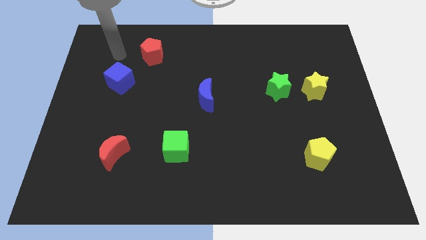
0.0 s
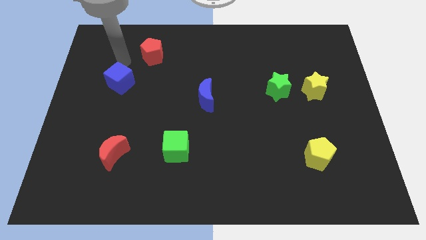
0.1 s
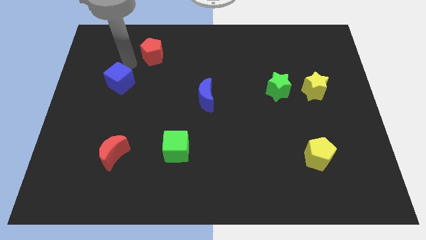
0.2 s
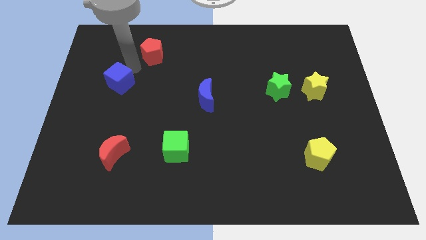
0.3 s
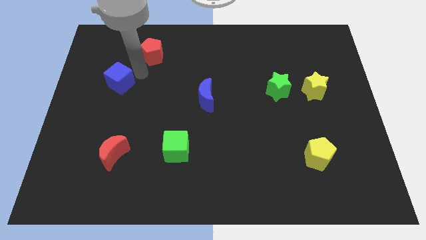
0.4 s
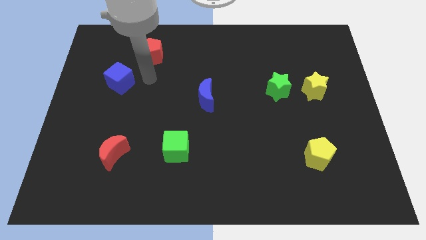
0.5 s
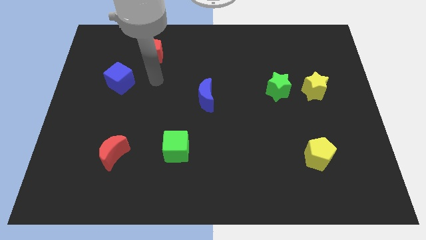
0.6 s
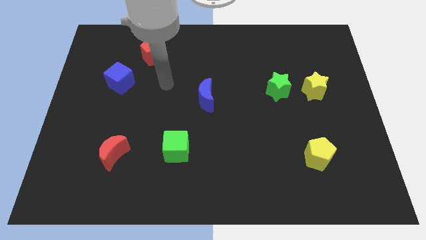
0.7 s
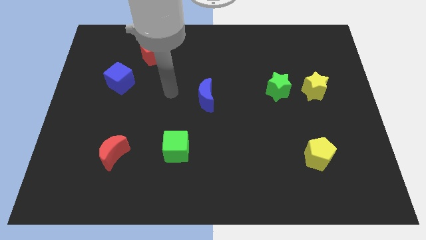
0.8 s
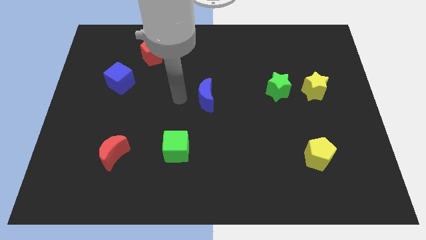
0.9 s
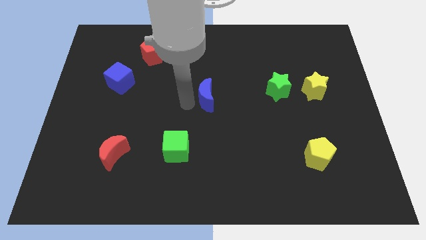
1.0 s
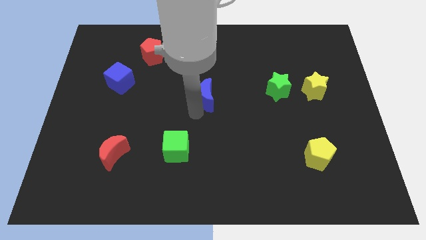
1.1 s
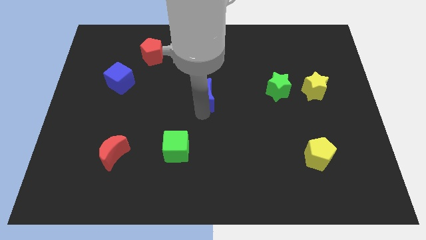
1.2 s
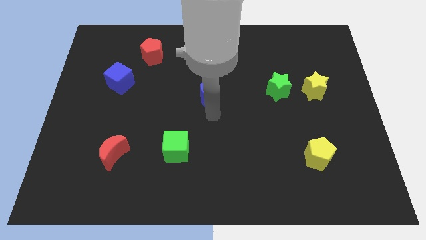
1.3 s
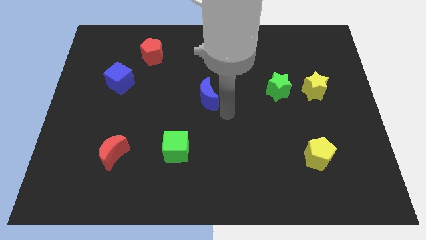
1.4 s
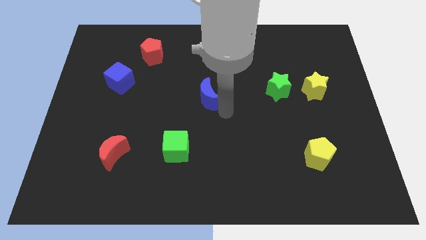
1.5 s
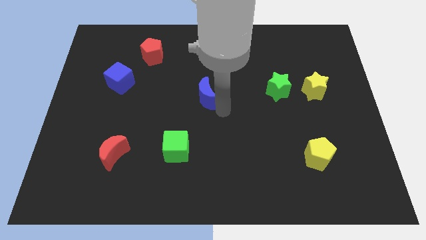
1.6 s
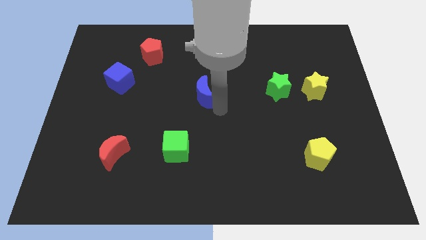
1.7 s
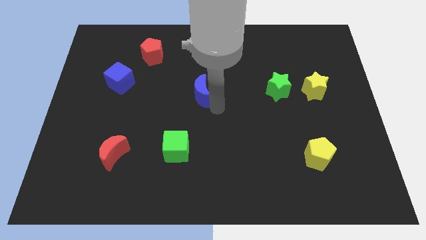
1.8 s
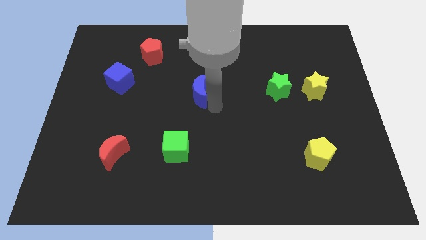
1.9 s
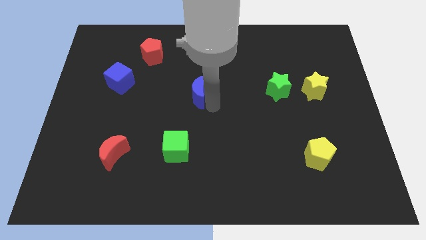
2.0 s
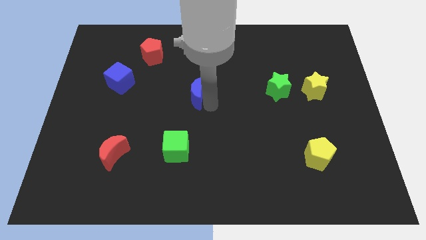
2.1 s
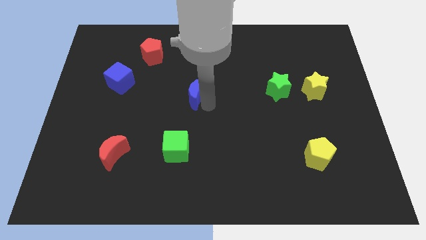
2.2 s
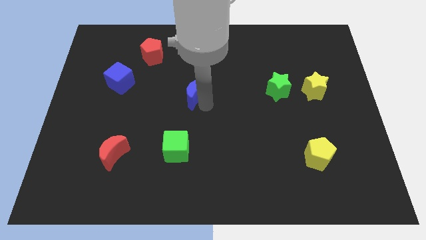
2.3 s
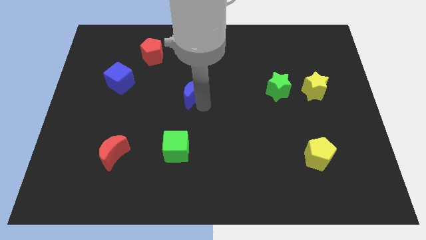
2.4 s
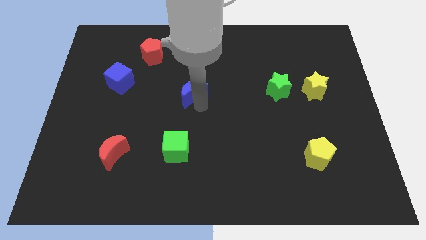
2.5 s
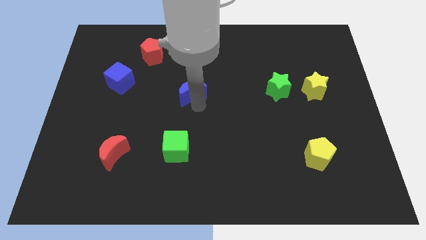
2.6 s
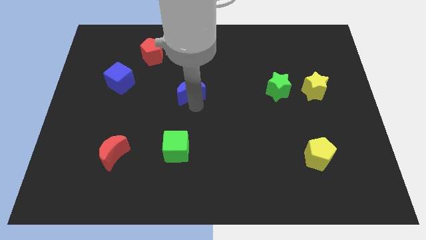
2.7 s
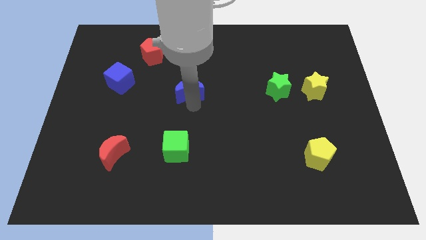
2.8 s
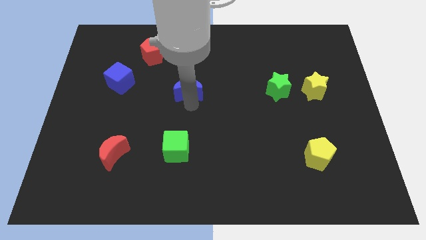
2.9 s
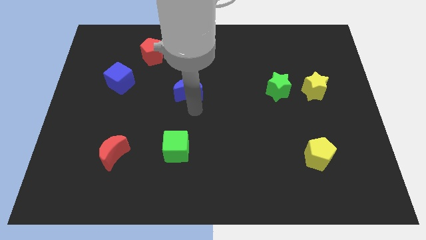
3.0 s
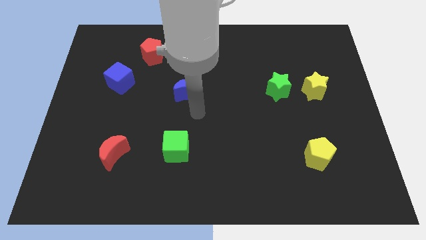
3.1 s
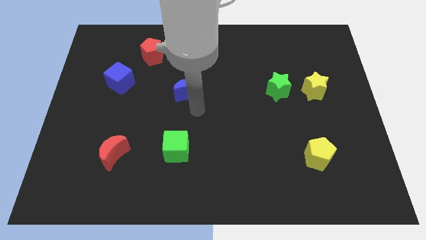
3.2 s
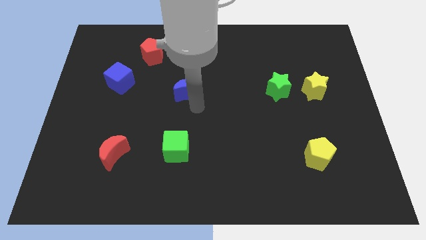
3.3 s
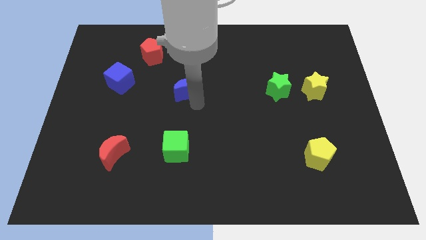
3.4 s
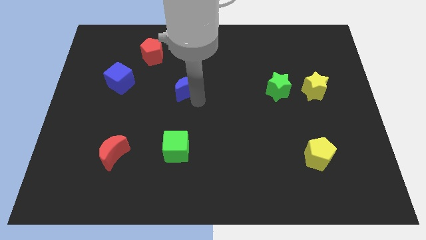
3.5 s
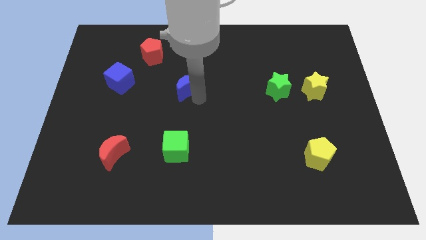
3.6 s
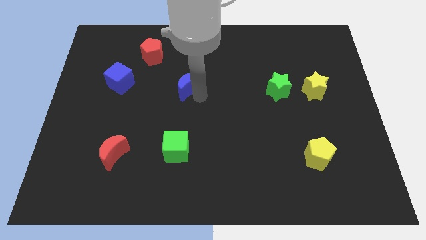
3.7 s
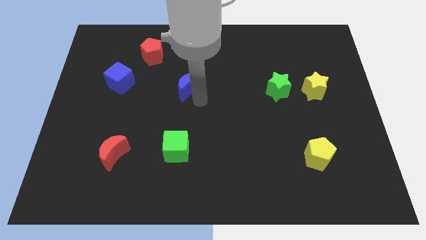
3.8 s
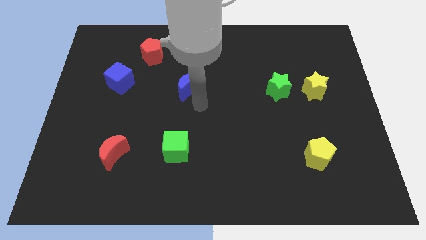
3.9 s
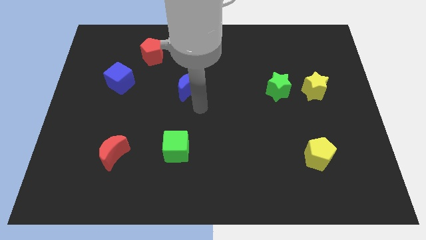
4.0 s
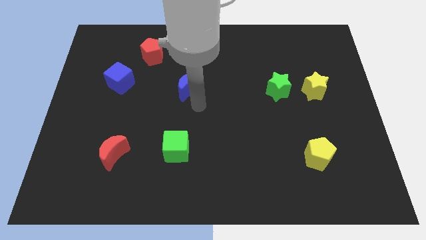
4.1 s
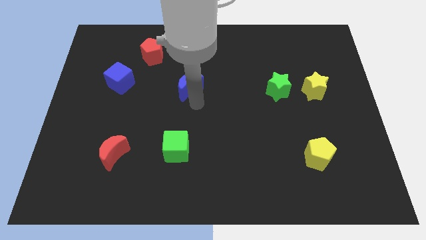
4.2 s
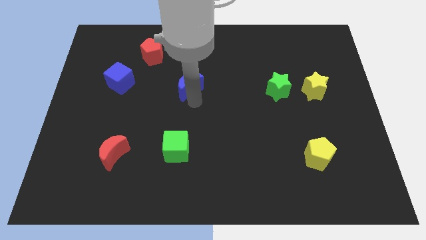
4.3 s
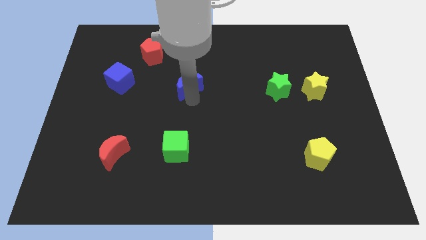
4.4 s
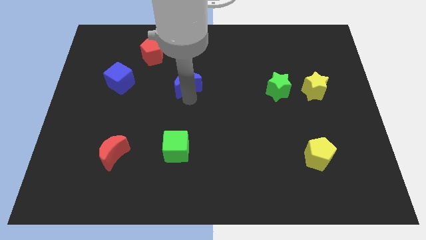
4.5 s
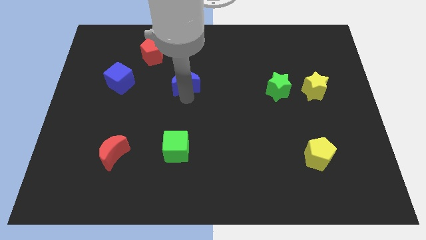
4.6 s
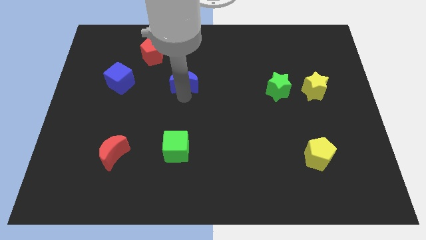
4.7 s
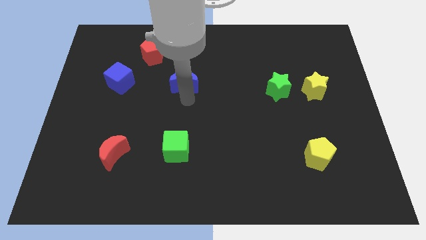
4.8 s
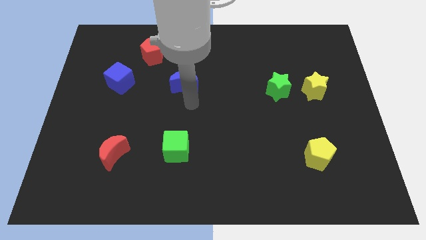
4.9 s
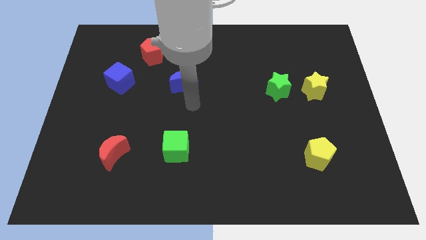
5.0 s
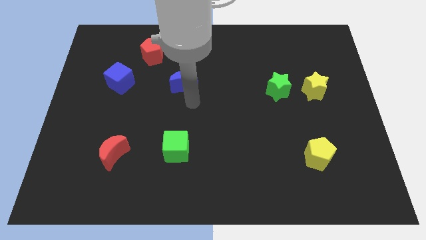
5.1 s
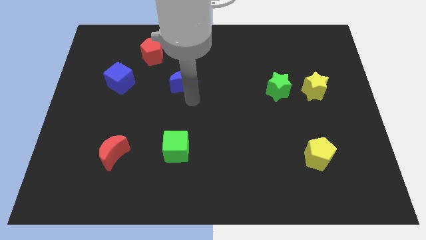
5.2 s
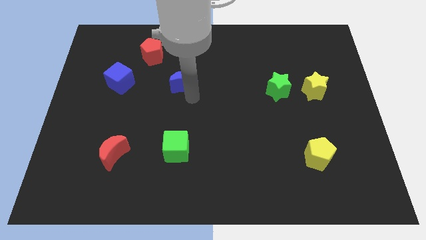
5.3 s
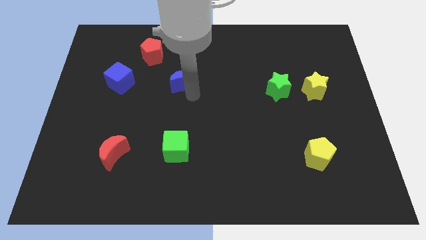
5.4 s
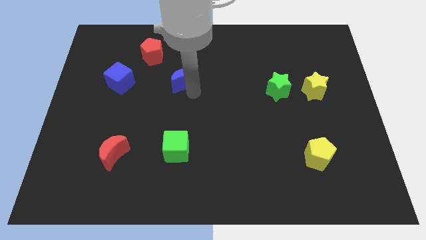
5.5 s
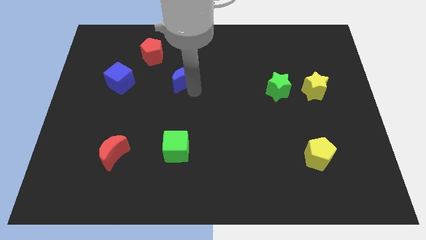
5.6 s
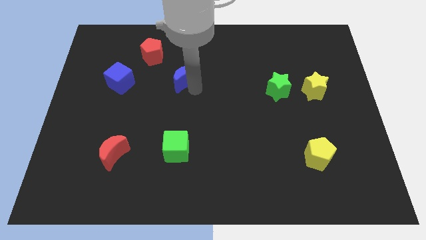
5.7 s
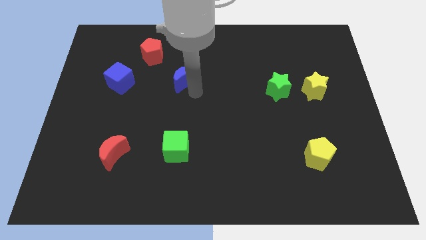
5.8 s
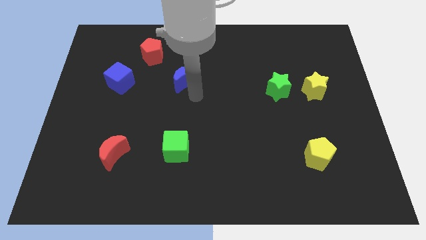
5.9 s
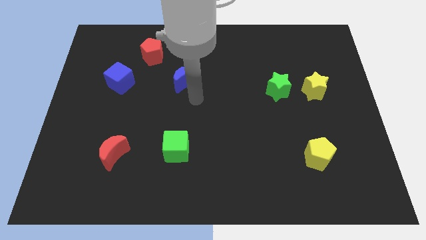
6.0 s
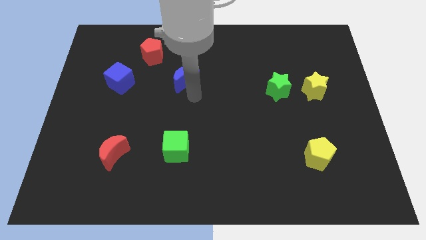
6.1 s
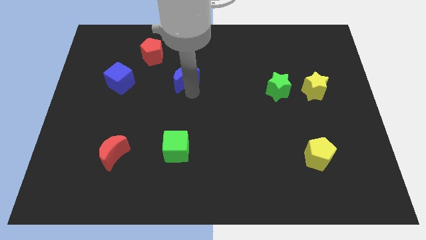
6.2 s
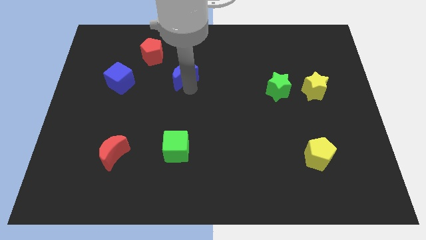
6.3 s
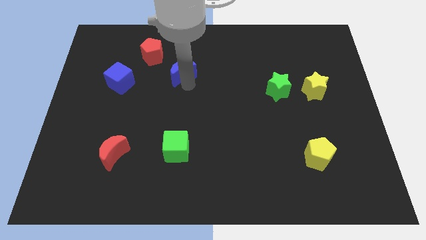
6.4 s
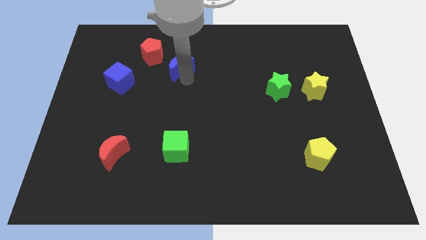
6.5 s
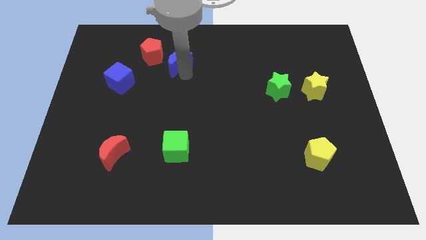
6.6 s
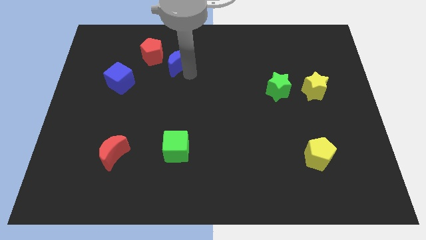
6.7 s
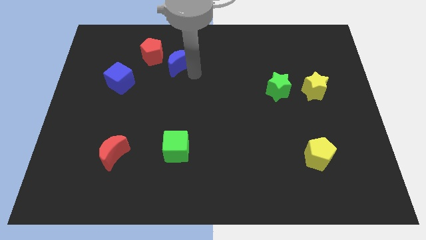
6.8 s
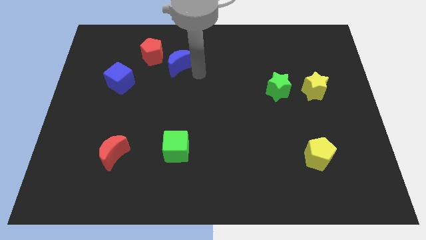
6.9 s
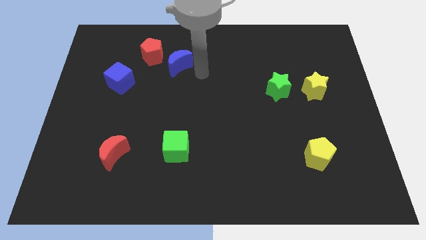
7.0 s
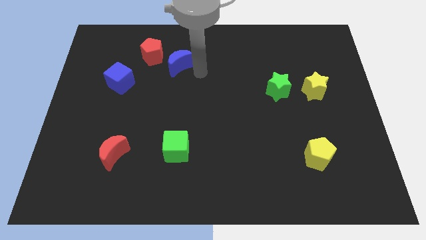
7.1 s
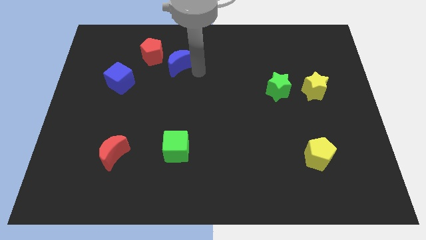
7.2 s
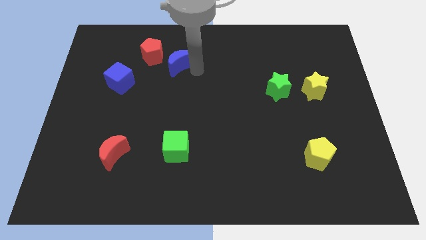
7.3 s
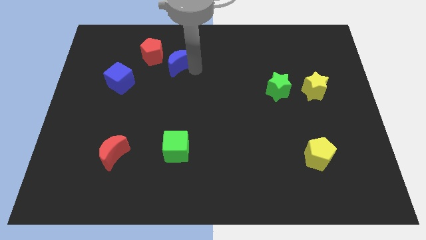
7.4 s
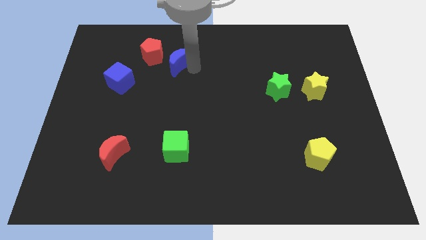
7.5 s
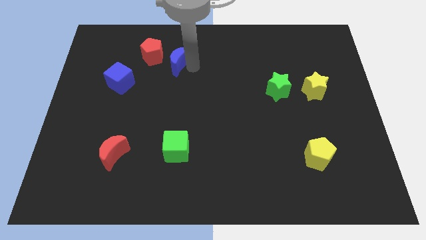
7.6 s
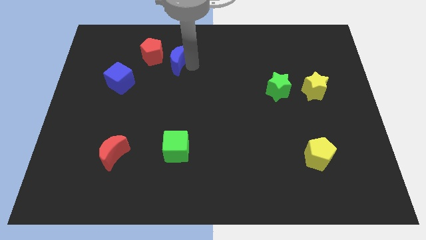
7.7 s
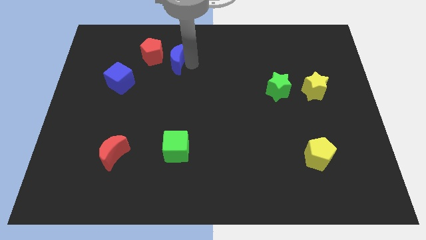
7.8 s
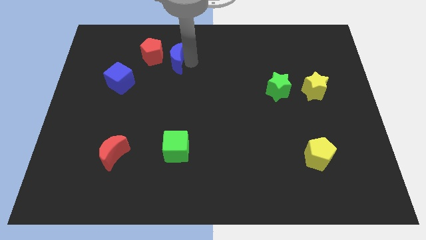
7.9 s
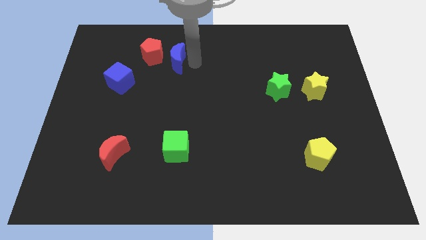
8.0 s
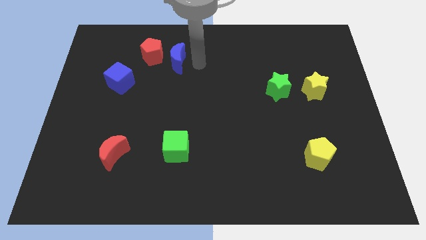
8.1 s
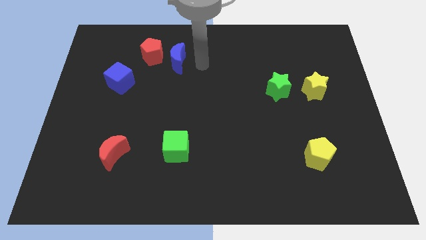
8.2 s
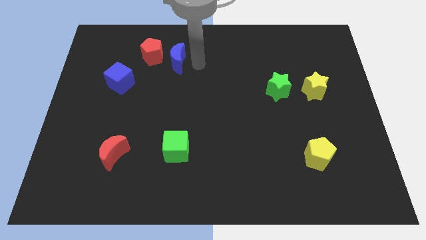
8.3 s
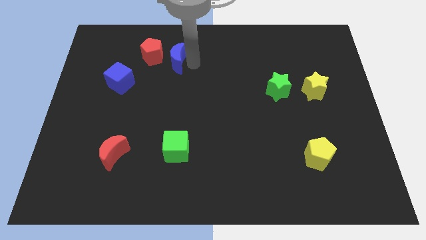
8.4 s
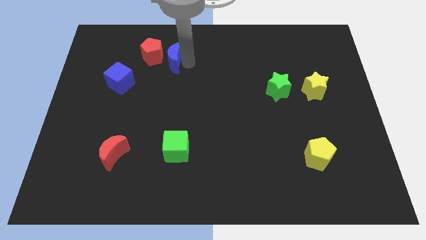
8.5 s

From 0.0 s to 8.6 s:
slide the blue moon to the red pentagon
